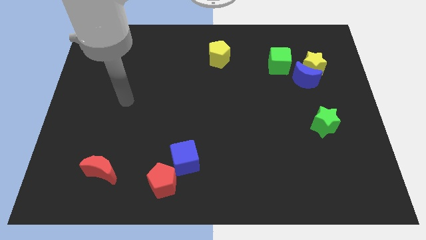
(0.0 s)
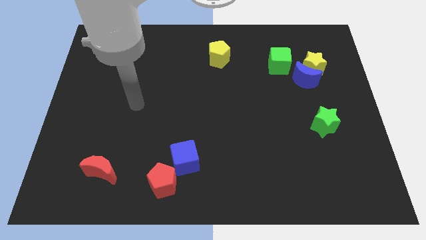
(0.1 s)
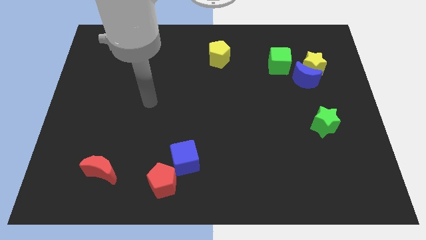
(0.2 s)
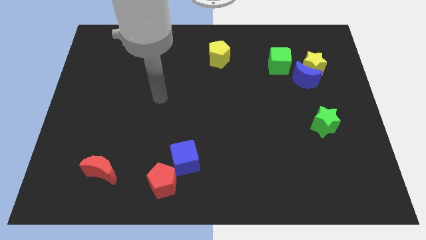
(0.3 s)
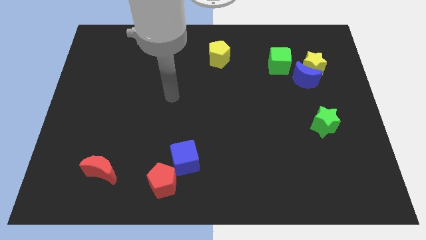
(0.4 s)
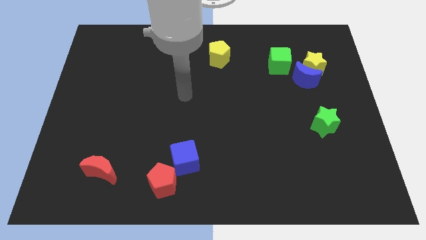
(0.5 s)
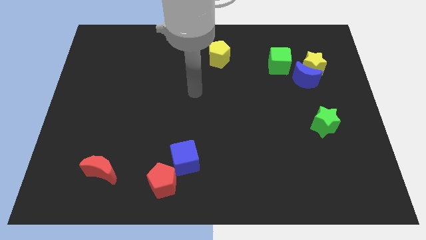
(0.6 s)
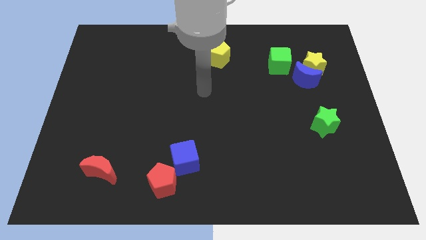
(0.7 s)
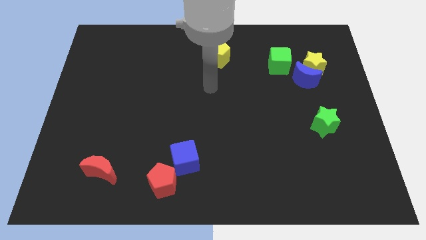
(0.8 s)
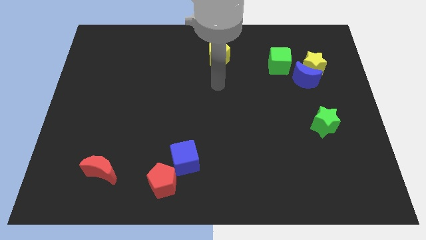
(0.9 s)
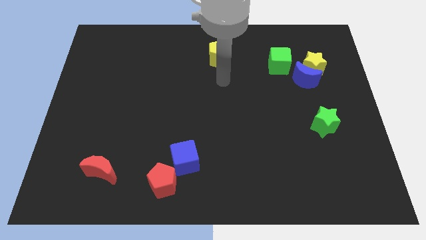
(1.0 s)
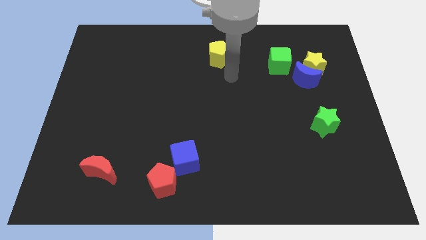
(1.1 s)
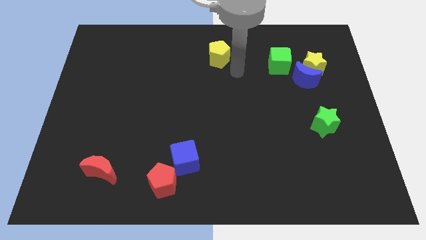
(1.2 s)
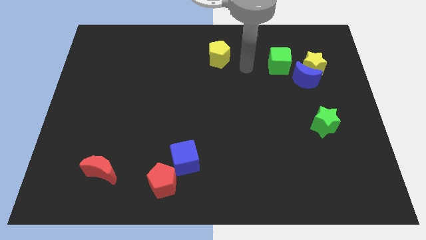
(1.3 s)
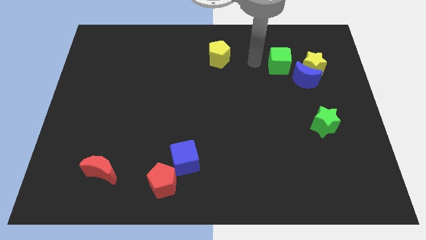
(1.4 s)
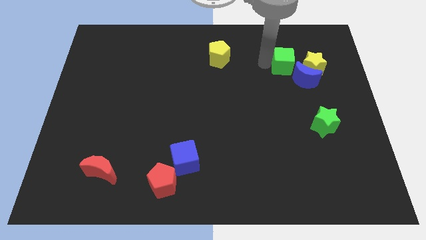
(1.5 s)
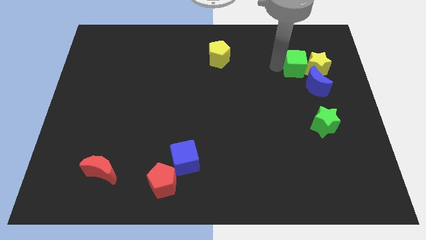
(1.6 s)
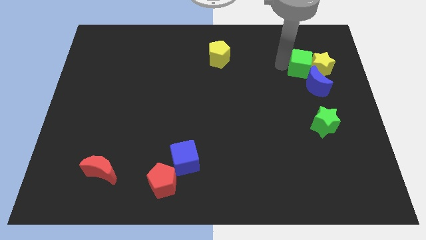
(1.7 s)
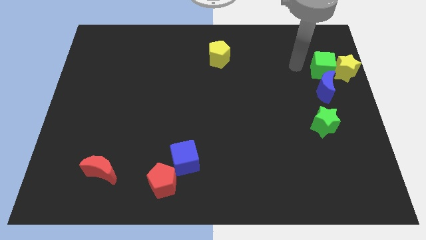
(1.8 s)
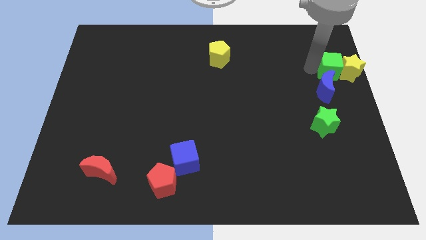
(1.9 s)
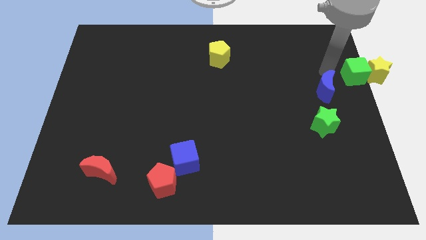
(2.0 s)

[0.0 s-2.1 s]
pull the blue moon apart from the yellow star and green cube

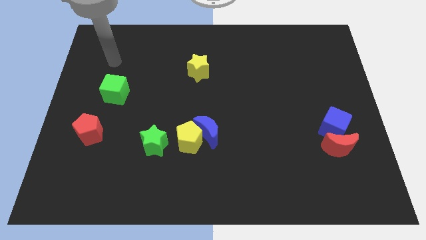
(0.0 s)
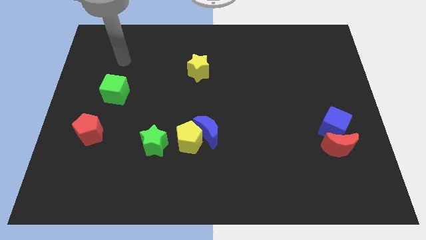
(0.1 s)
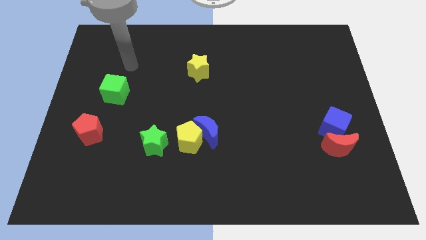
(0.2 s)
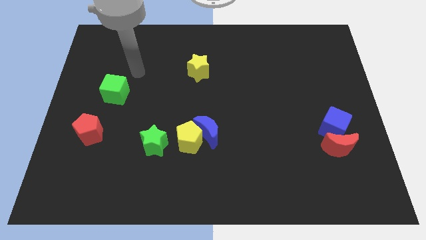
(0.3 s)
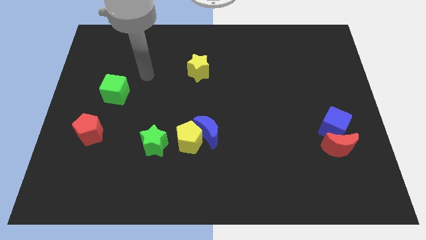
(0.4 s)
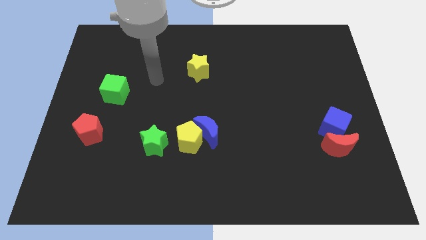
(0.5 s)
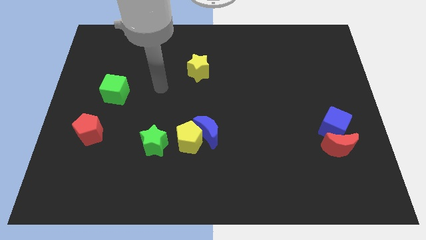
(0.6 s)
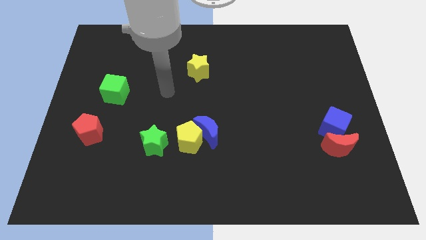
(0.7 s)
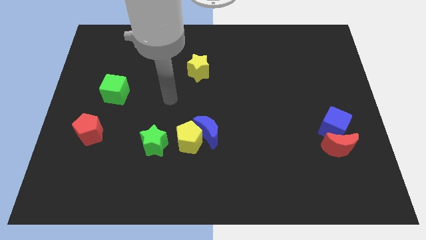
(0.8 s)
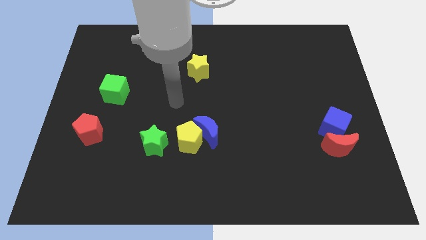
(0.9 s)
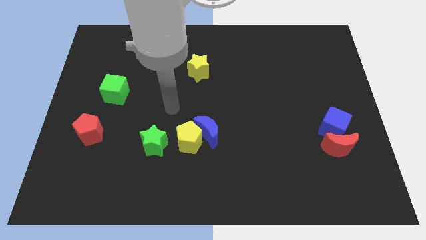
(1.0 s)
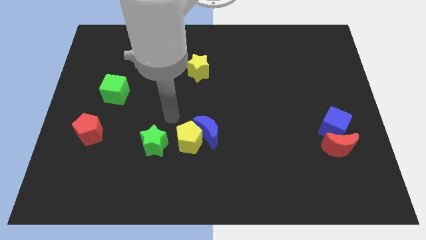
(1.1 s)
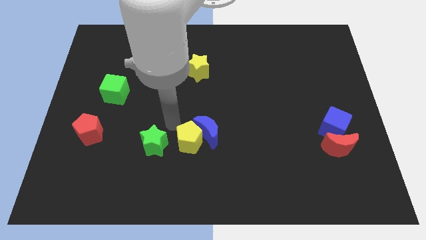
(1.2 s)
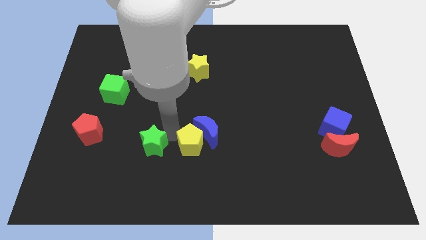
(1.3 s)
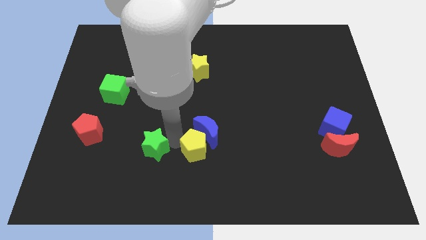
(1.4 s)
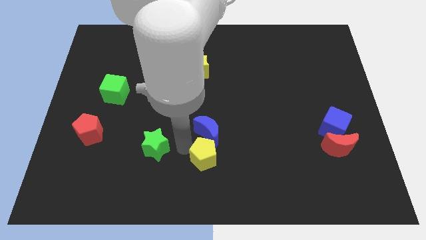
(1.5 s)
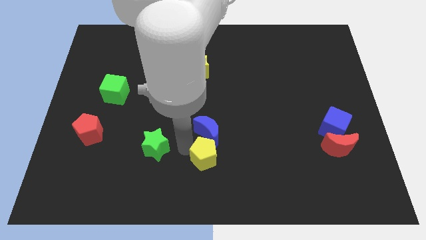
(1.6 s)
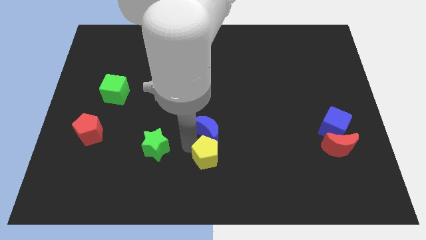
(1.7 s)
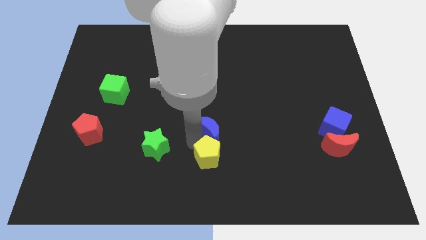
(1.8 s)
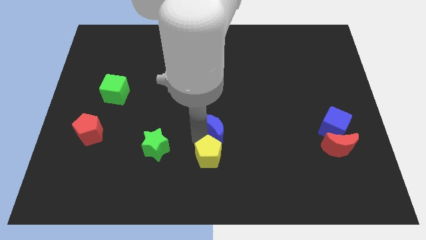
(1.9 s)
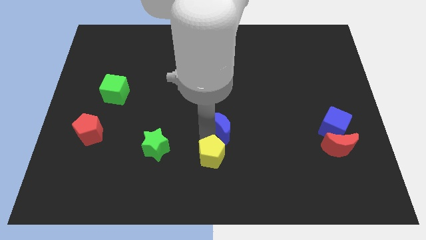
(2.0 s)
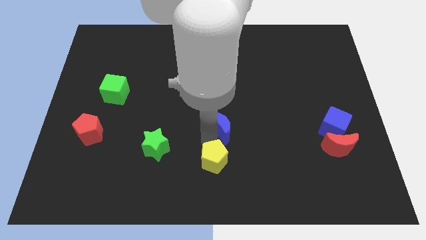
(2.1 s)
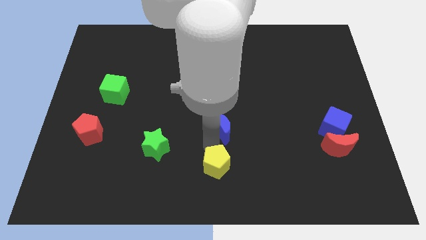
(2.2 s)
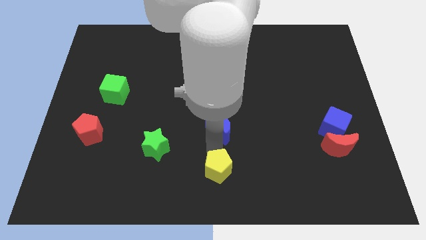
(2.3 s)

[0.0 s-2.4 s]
move the blue moon away from the yellow pentagon

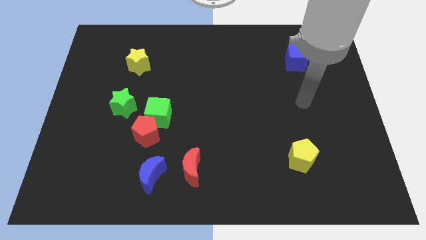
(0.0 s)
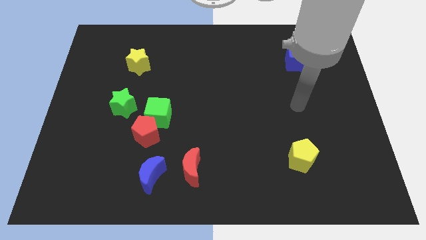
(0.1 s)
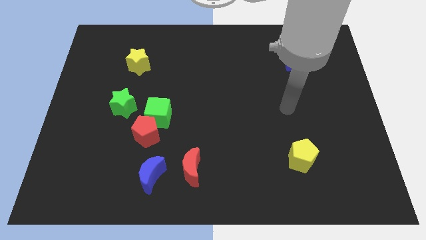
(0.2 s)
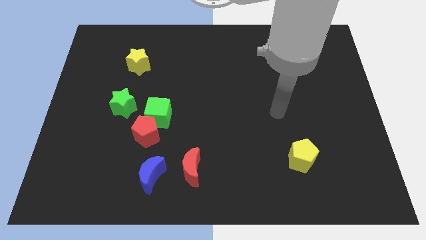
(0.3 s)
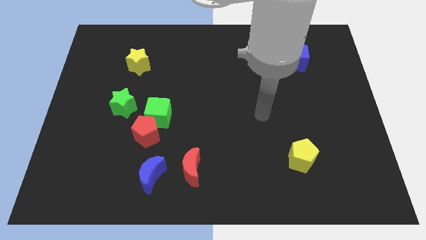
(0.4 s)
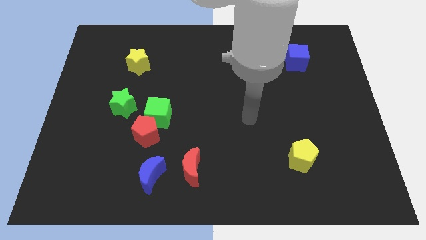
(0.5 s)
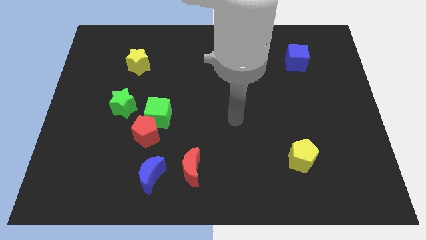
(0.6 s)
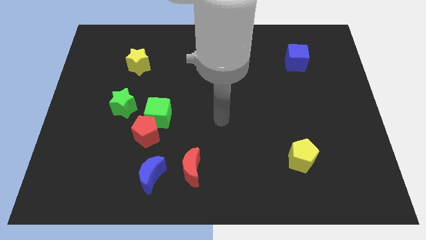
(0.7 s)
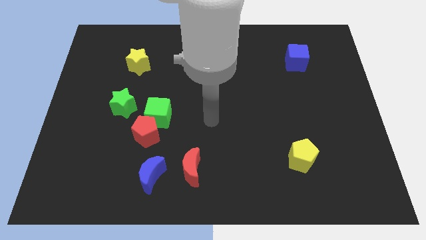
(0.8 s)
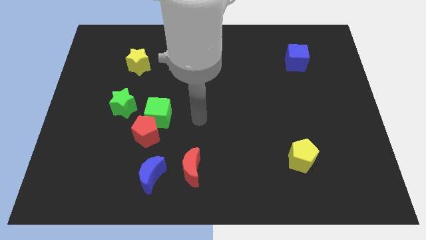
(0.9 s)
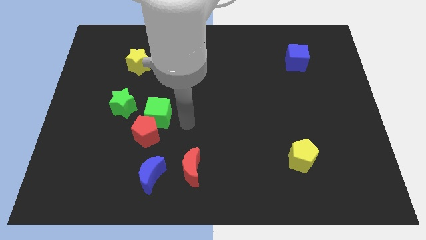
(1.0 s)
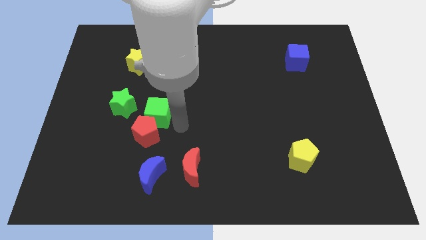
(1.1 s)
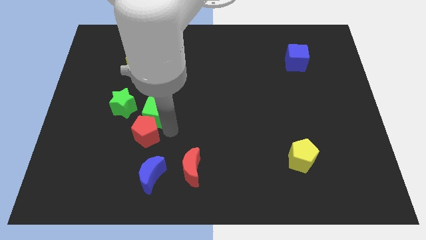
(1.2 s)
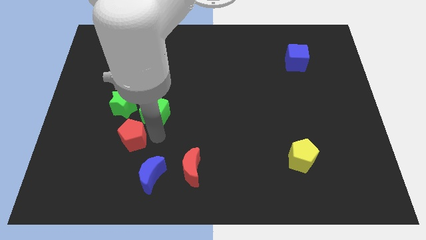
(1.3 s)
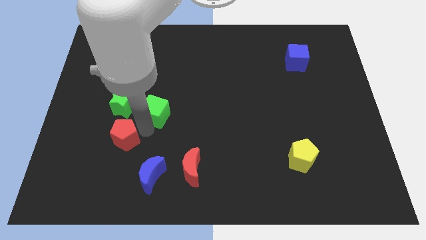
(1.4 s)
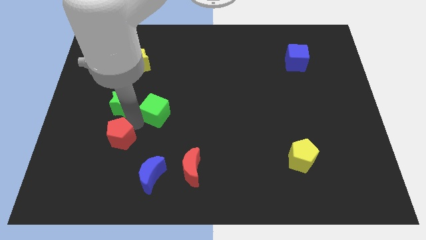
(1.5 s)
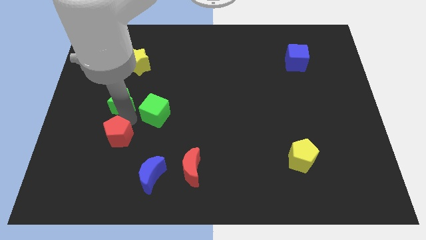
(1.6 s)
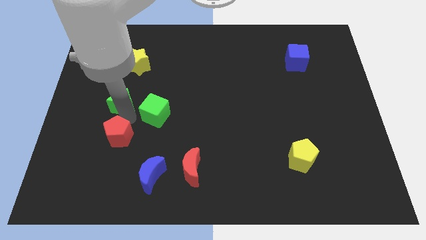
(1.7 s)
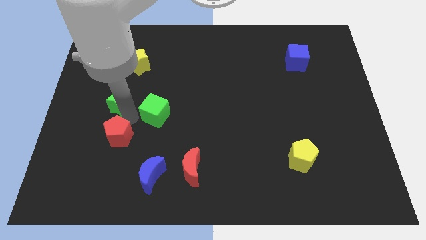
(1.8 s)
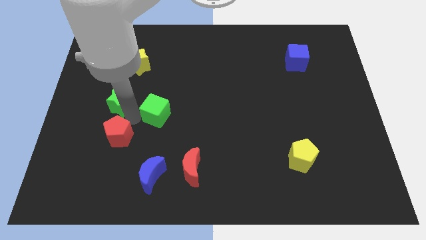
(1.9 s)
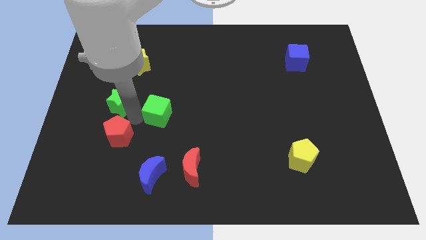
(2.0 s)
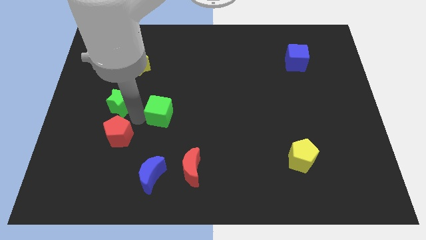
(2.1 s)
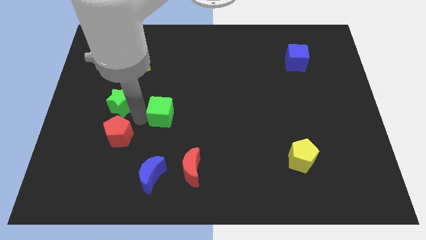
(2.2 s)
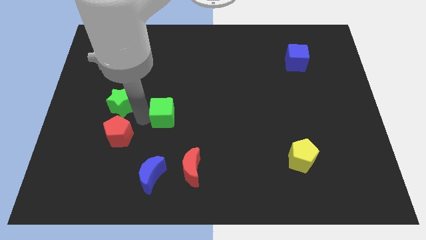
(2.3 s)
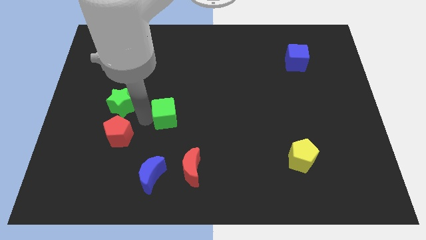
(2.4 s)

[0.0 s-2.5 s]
separate the green cube from the red pentagon and green star

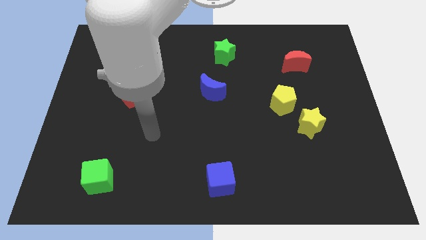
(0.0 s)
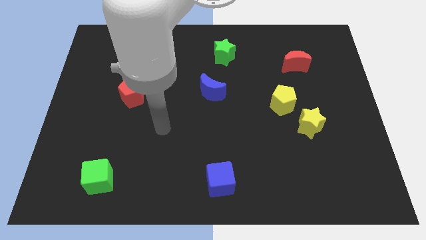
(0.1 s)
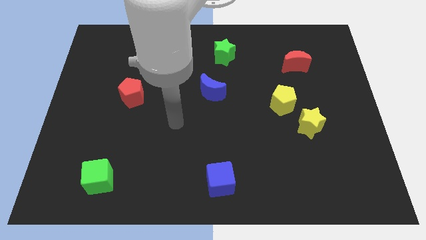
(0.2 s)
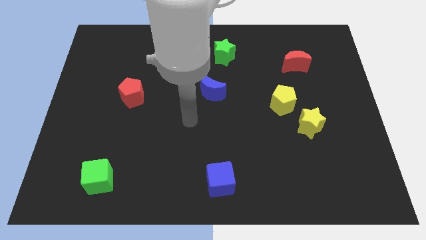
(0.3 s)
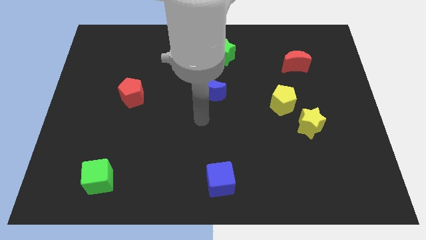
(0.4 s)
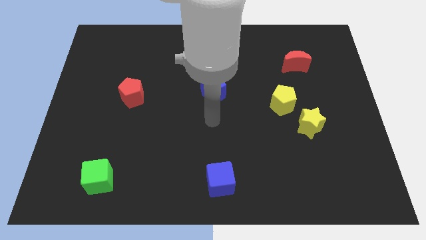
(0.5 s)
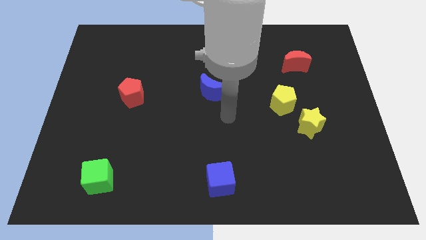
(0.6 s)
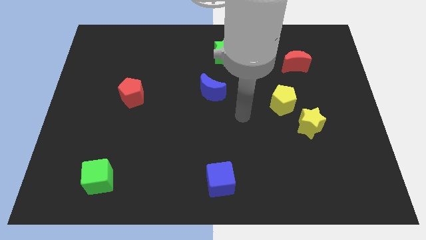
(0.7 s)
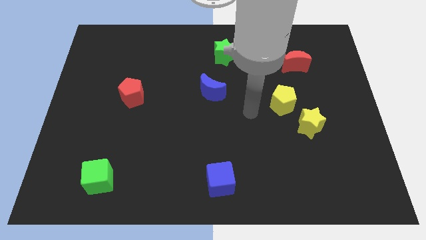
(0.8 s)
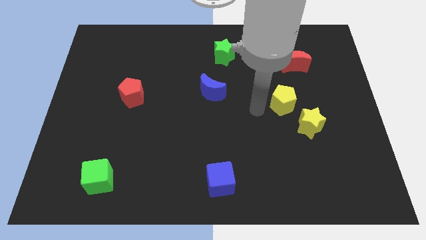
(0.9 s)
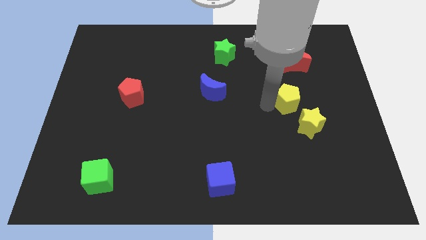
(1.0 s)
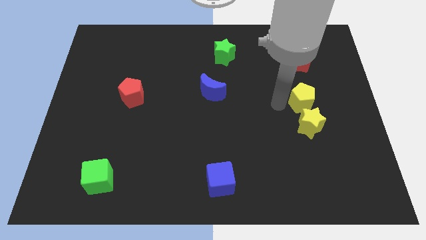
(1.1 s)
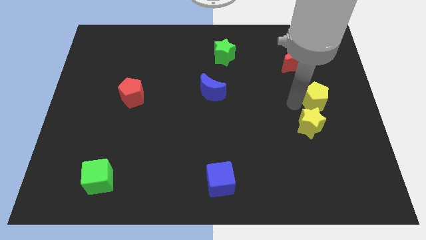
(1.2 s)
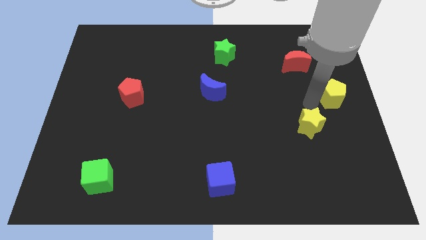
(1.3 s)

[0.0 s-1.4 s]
move the yellow star away from the yellow pentagon

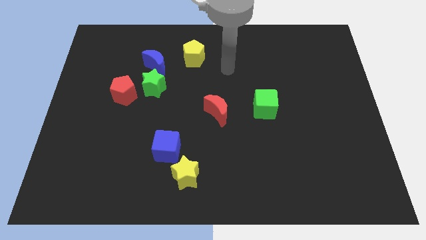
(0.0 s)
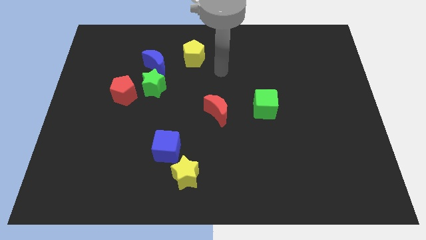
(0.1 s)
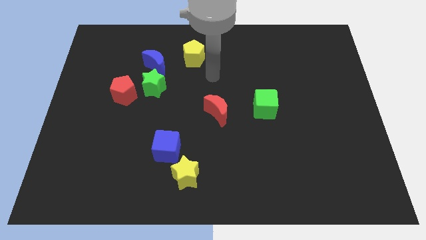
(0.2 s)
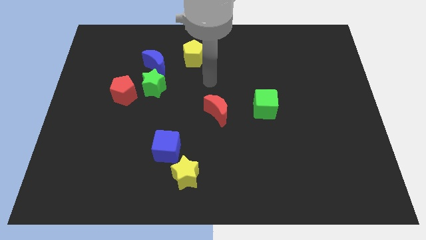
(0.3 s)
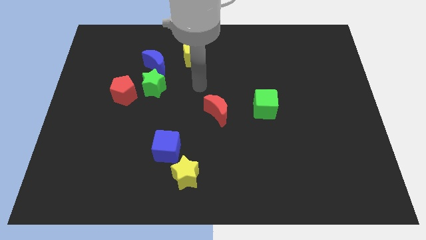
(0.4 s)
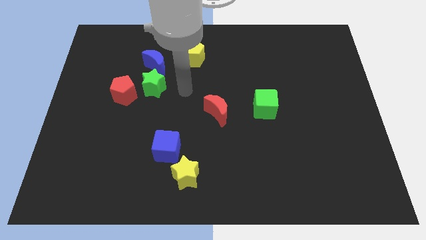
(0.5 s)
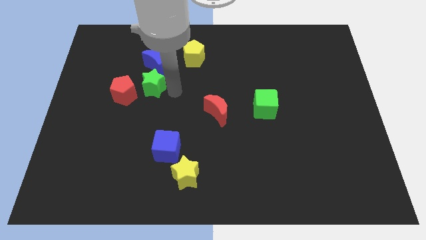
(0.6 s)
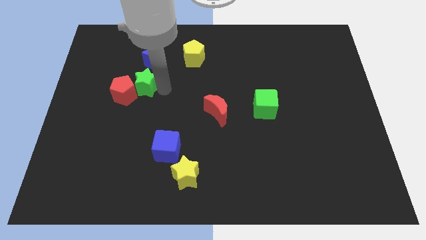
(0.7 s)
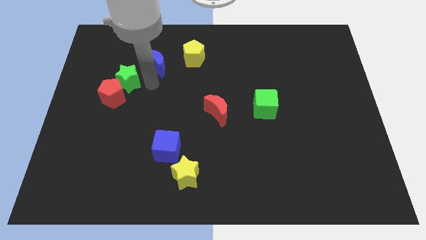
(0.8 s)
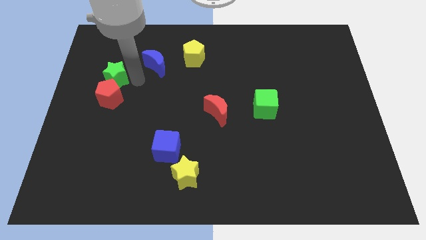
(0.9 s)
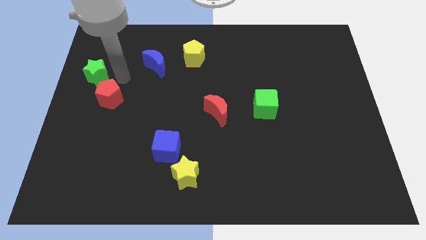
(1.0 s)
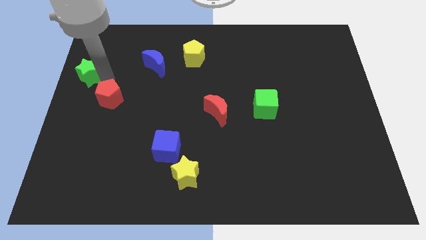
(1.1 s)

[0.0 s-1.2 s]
pull the red pentagon apart from the green star
